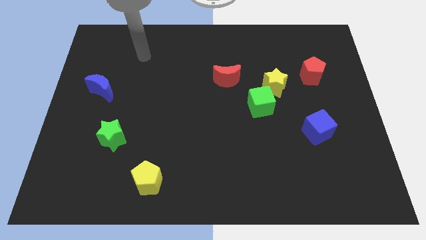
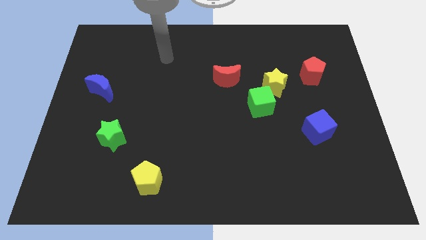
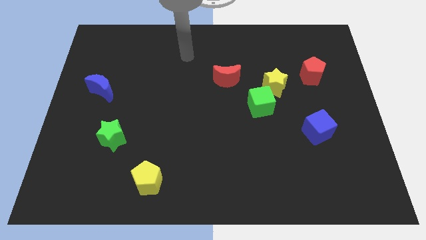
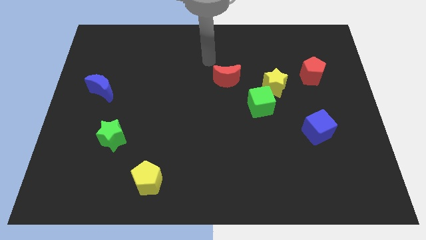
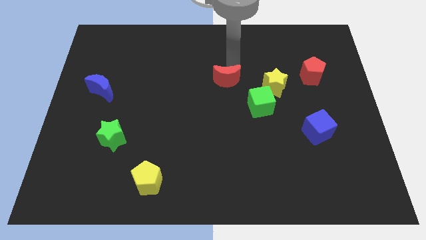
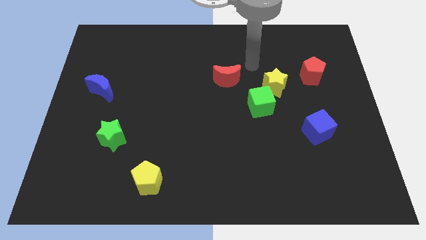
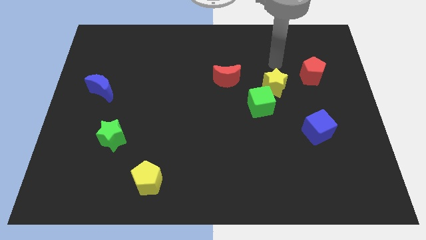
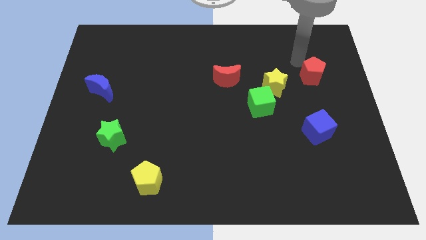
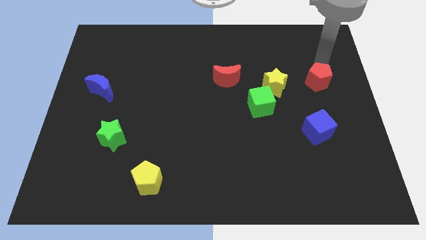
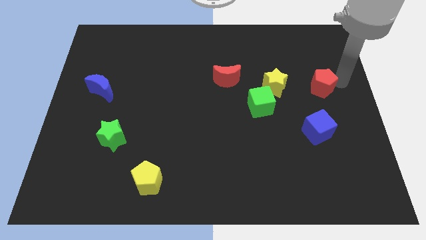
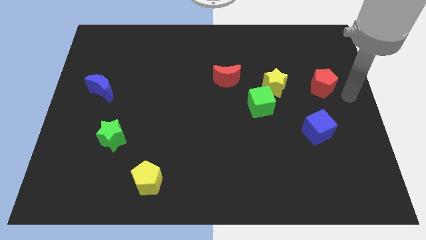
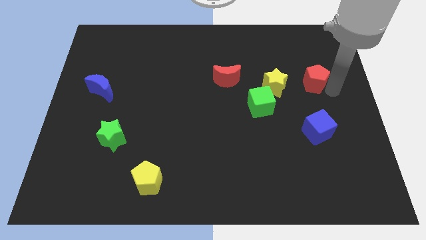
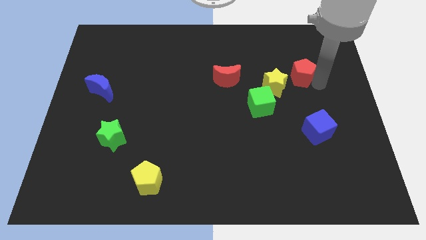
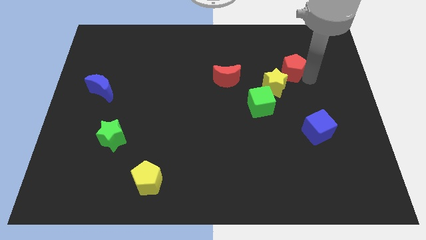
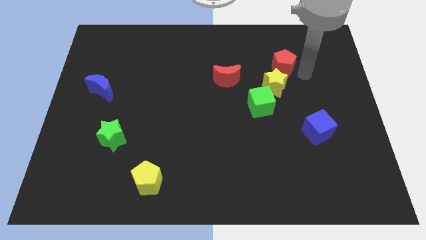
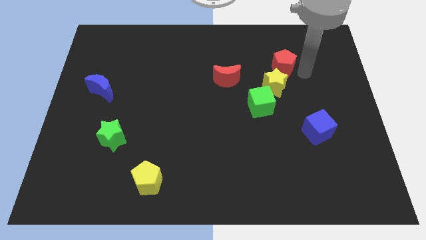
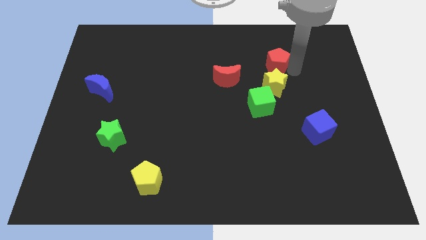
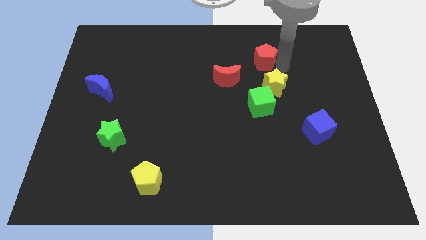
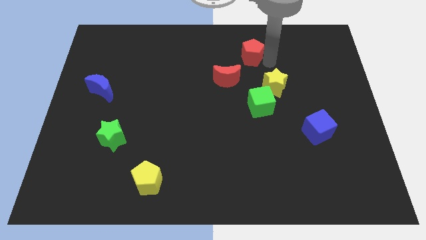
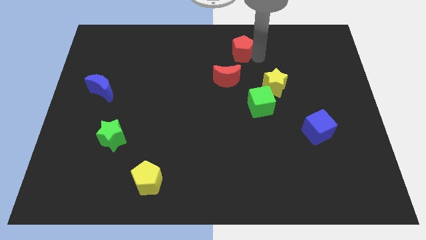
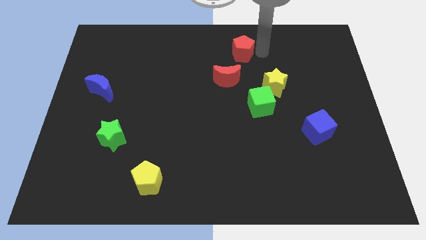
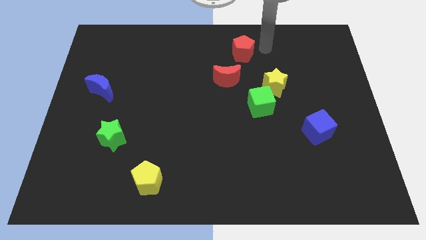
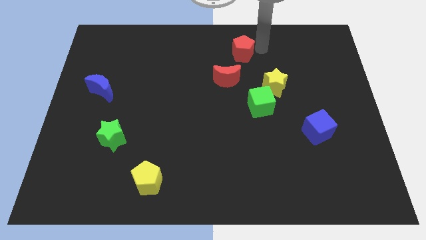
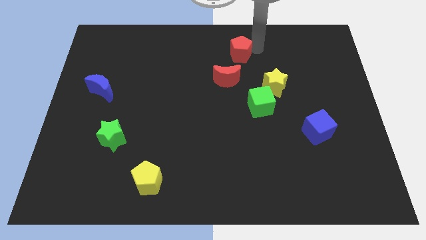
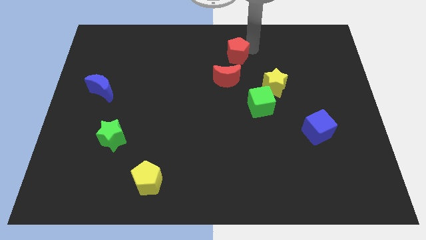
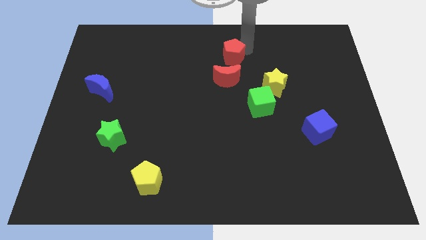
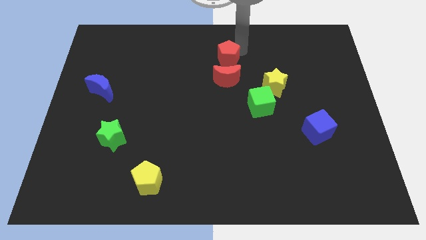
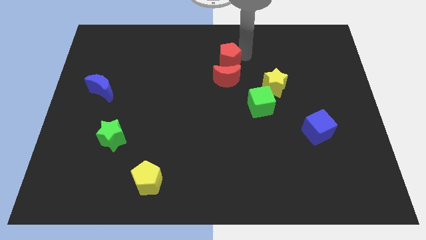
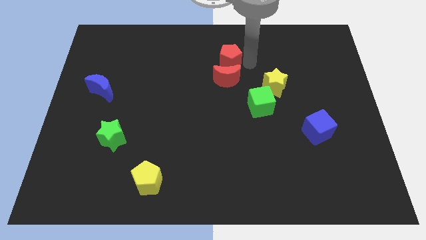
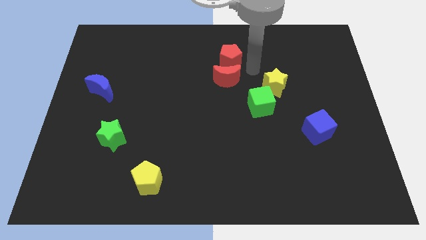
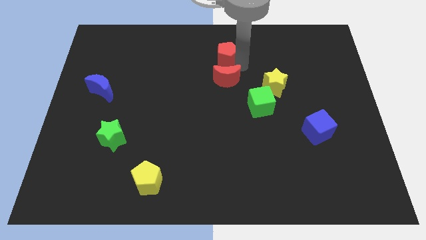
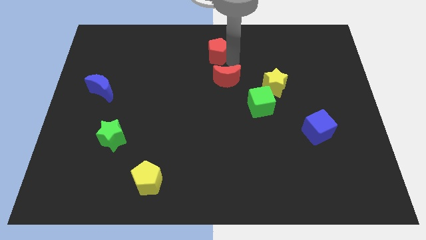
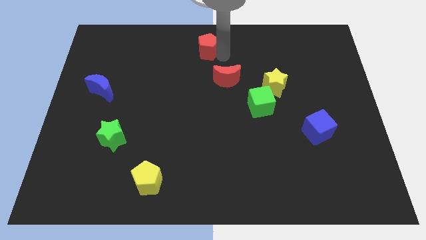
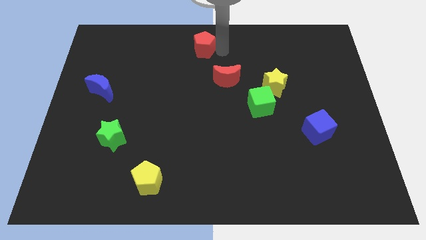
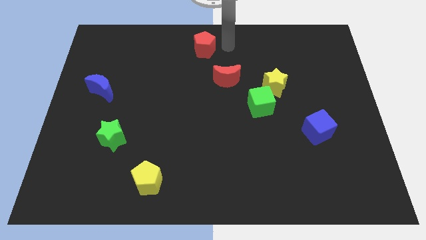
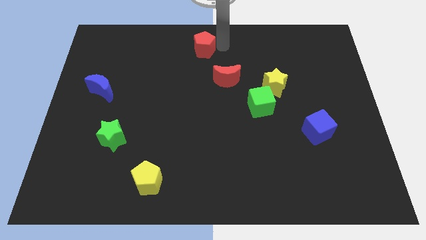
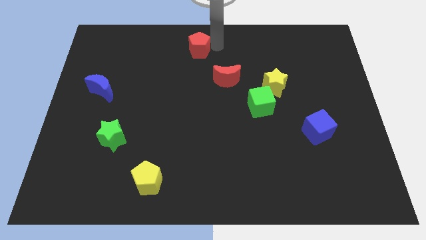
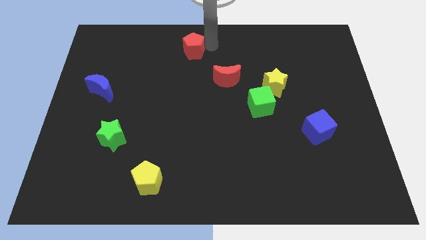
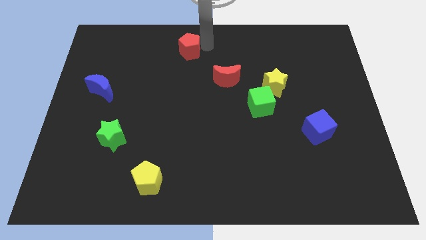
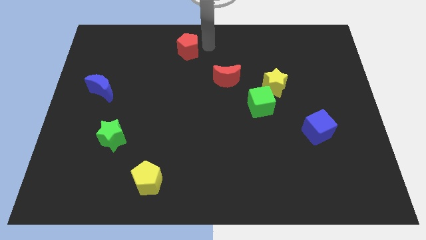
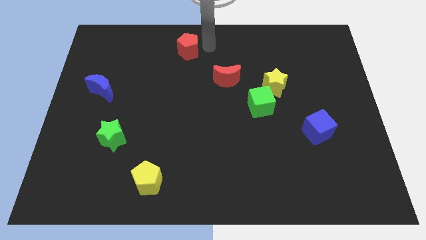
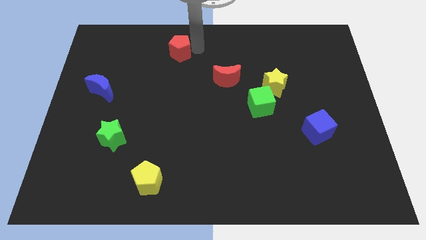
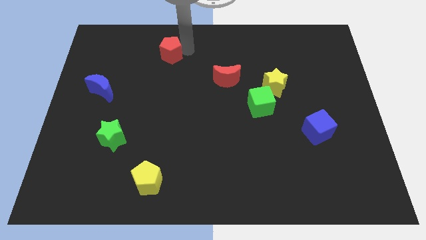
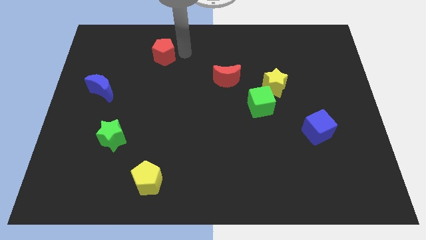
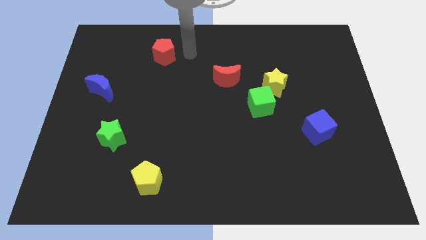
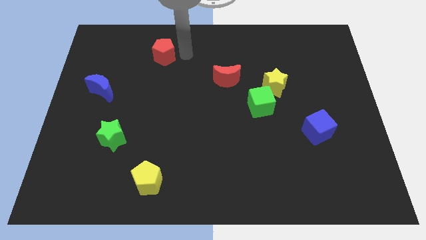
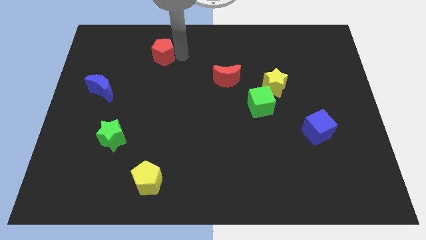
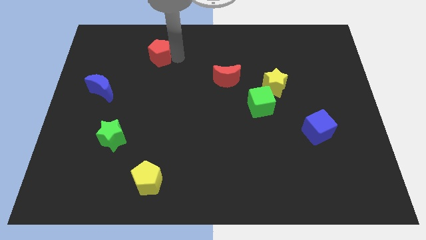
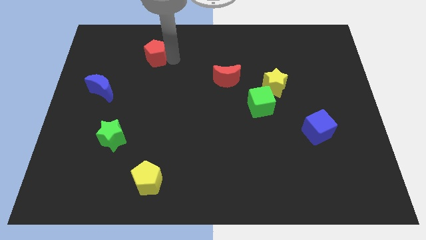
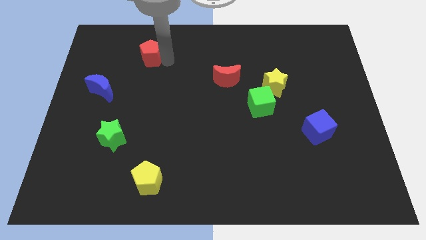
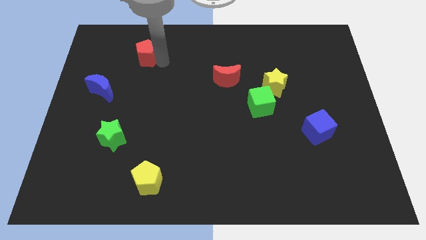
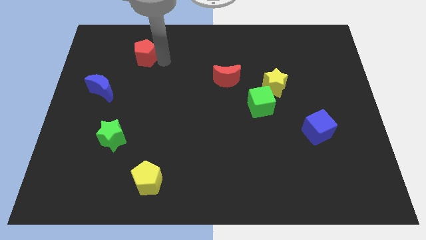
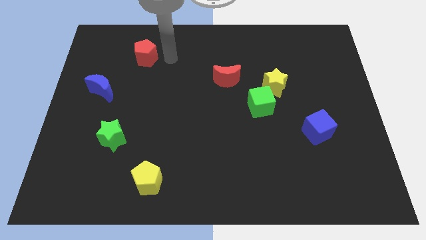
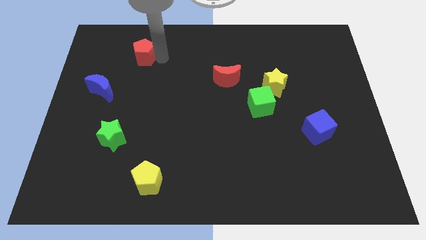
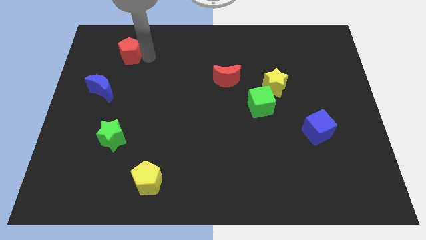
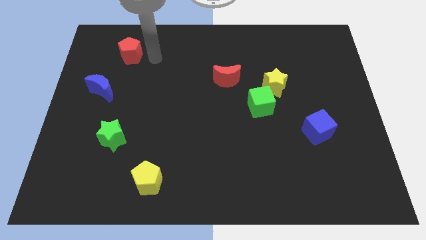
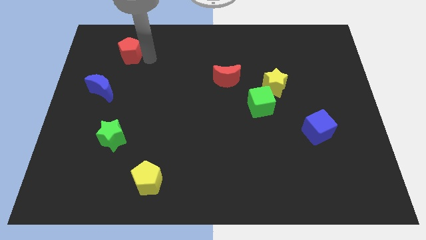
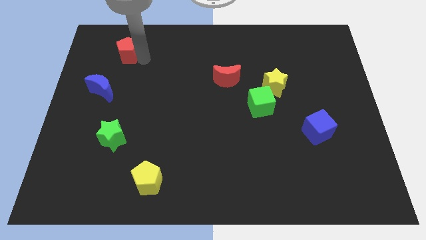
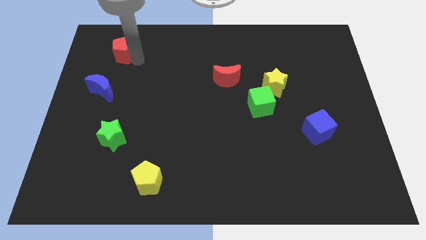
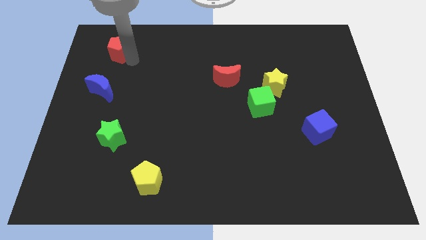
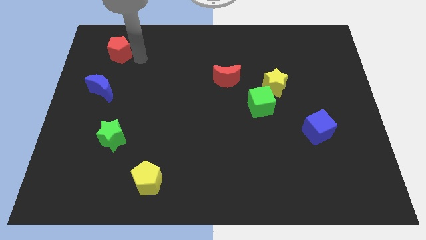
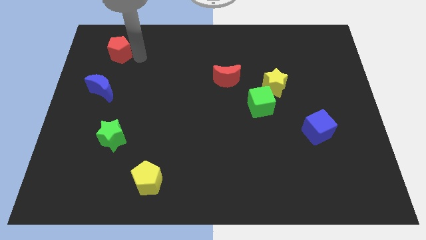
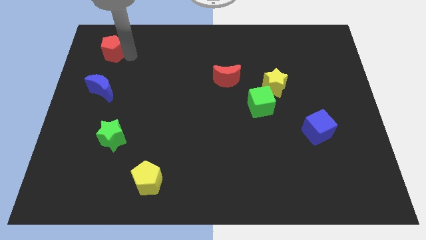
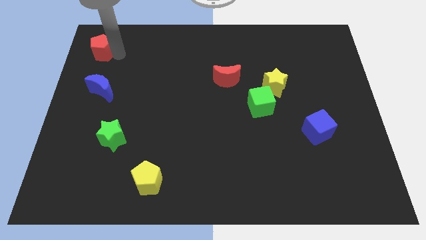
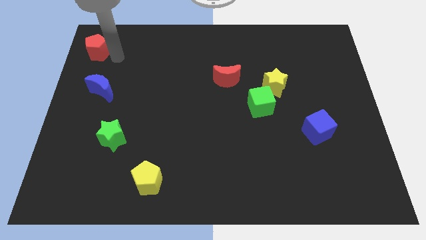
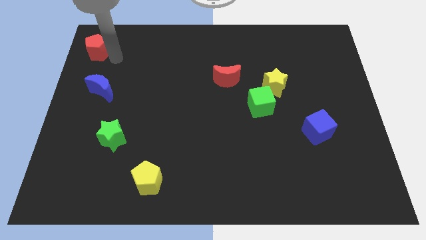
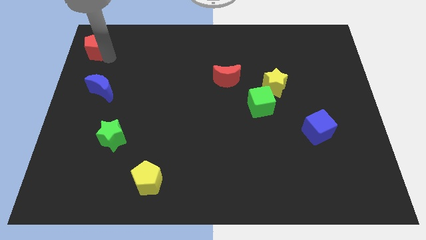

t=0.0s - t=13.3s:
move the red pentagon to the top left corner
